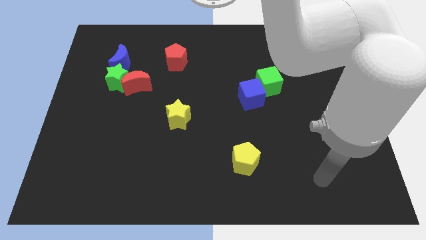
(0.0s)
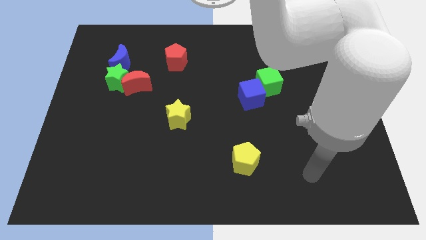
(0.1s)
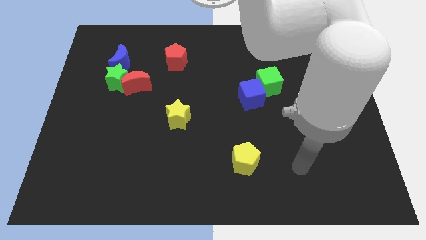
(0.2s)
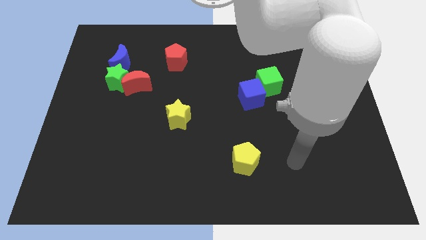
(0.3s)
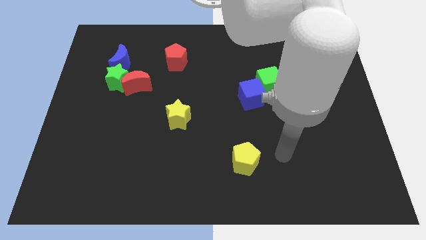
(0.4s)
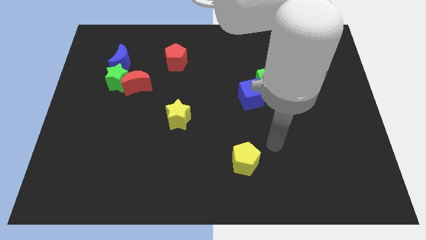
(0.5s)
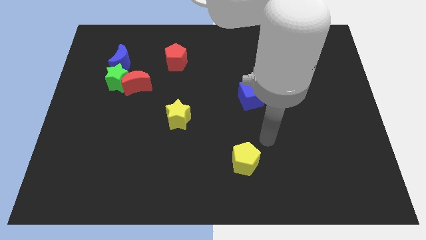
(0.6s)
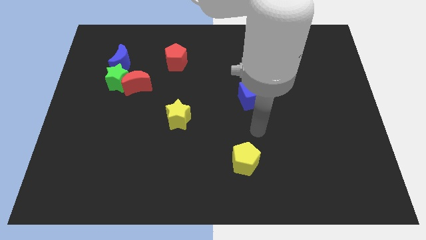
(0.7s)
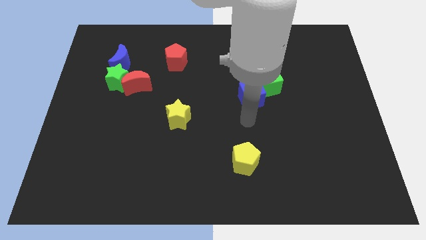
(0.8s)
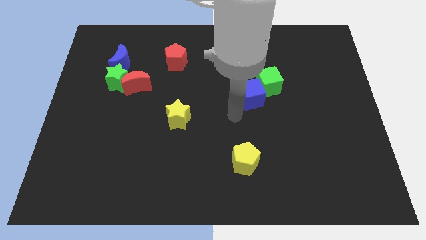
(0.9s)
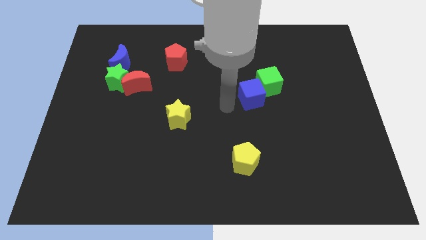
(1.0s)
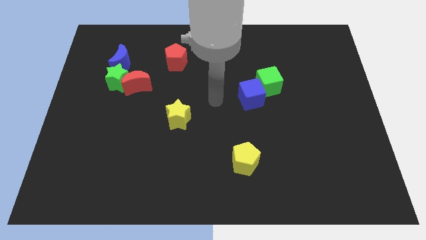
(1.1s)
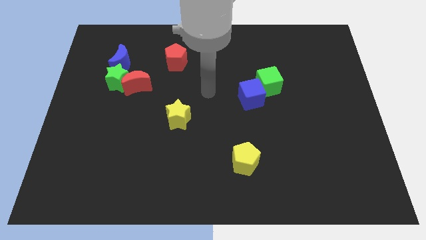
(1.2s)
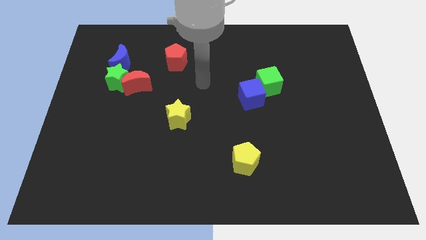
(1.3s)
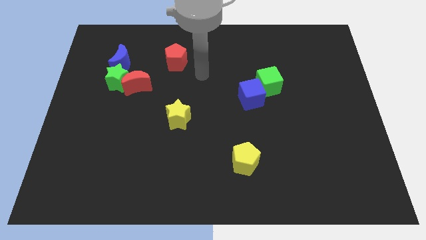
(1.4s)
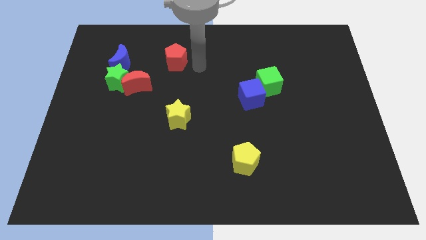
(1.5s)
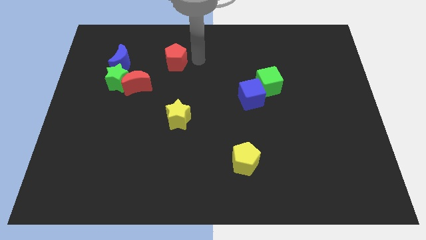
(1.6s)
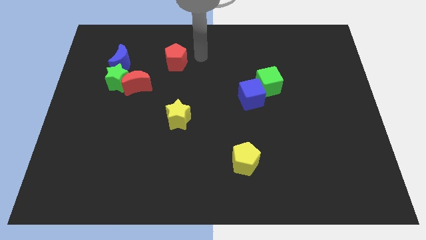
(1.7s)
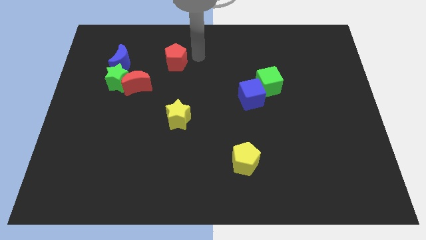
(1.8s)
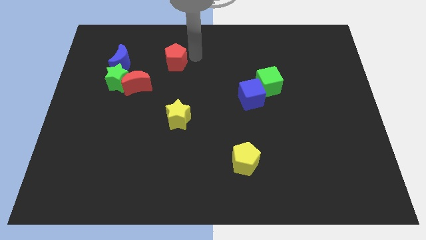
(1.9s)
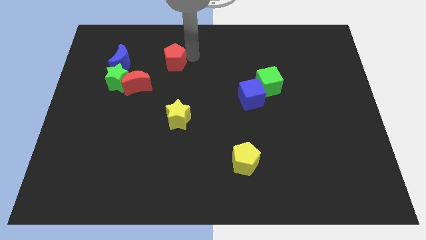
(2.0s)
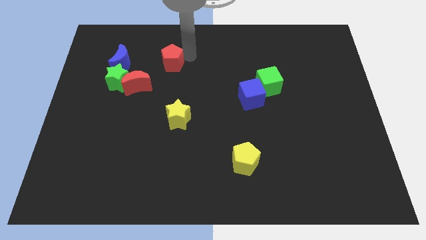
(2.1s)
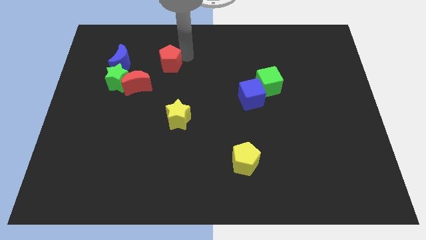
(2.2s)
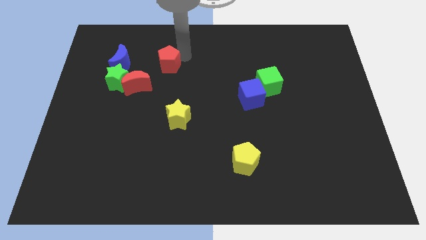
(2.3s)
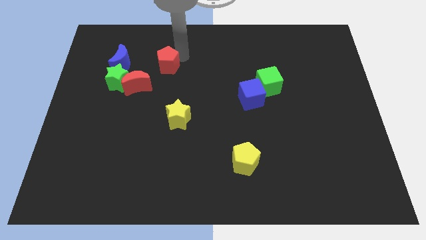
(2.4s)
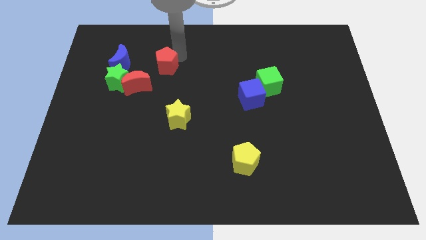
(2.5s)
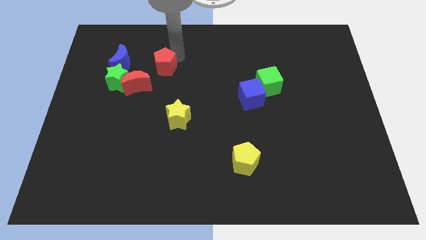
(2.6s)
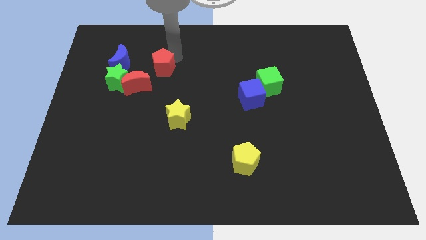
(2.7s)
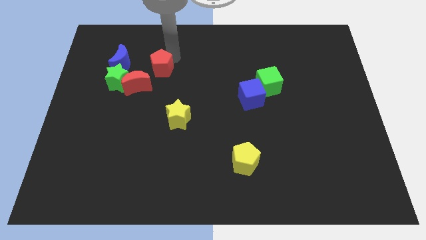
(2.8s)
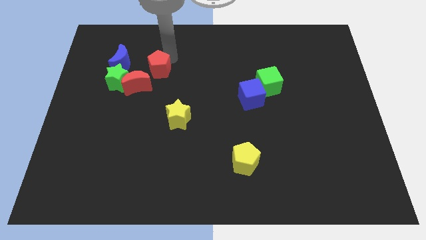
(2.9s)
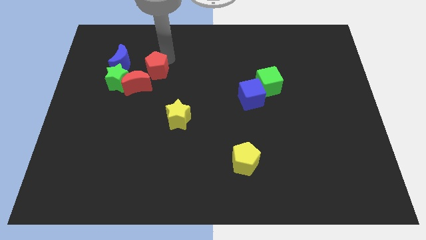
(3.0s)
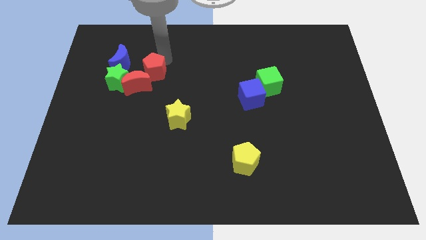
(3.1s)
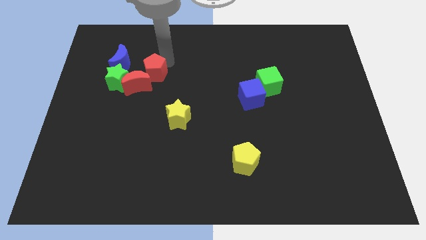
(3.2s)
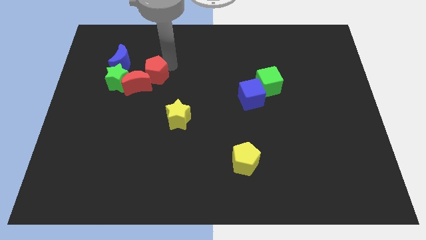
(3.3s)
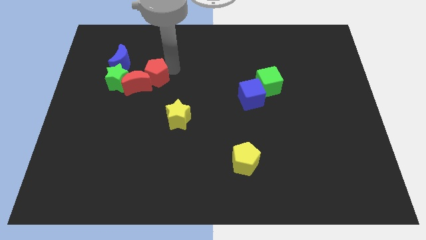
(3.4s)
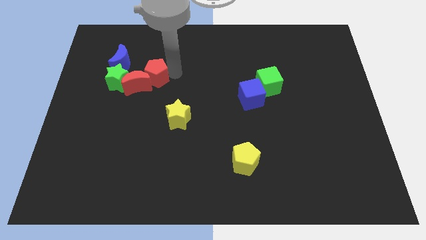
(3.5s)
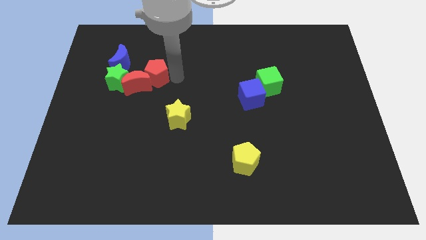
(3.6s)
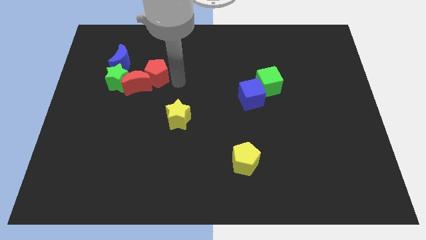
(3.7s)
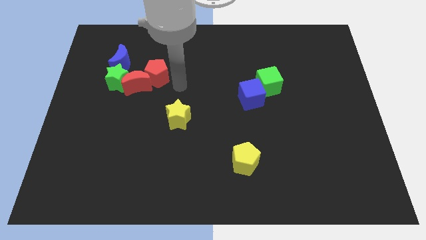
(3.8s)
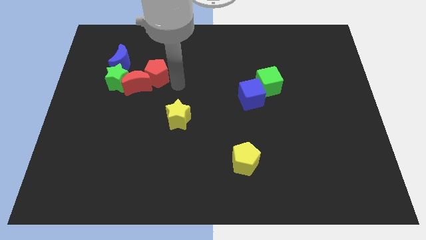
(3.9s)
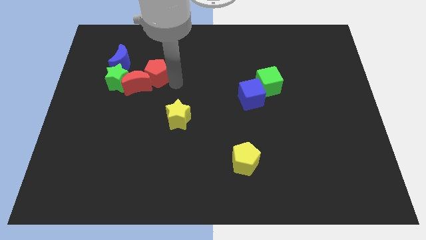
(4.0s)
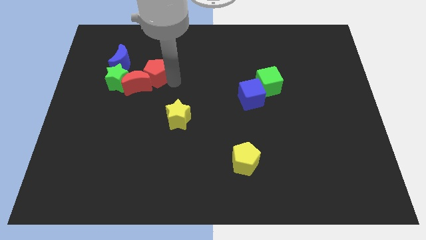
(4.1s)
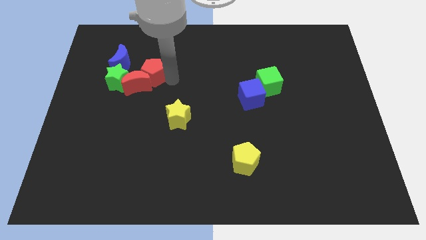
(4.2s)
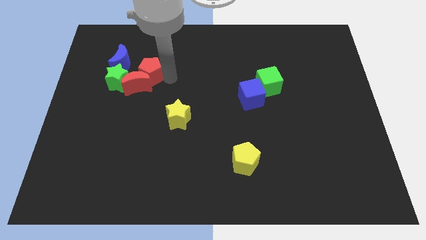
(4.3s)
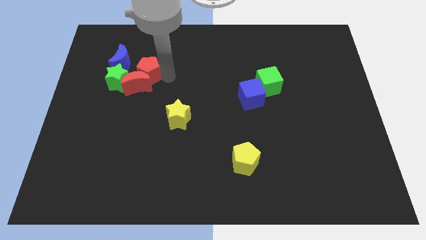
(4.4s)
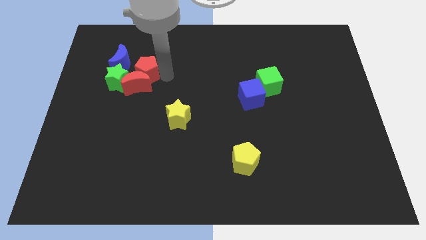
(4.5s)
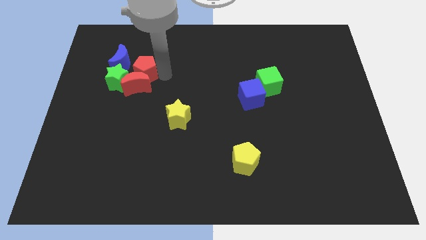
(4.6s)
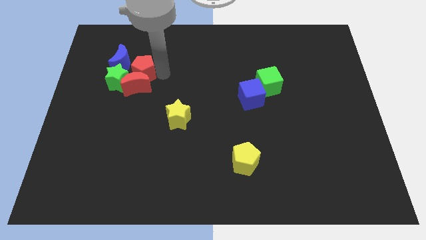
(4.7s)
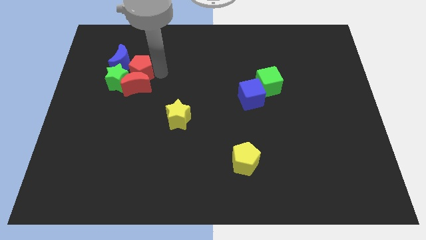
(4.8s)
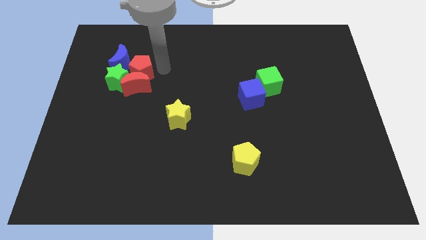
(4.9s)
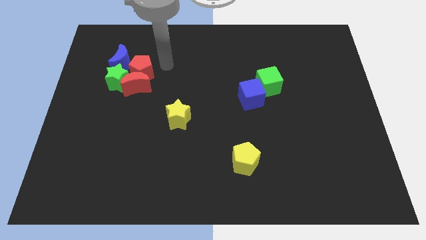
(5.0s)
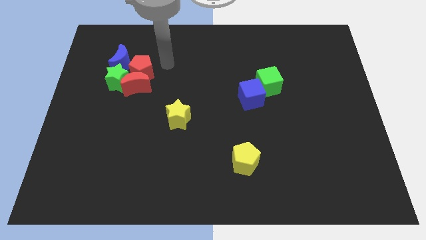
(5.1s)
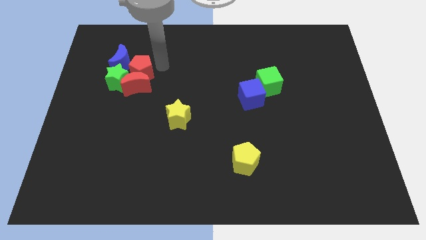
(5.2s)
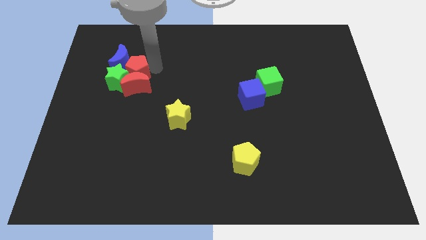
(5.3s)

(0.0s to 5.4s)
move the red pentagon towards the green star

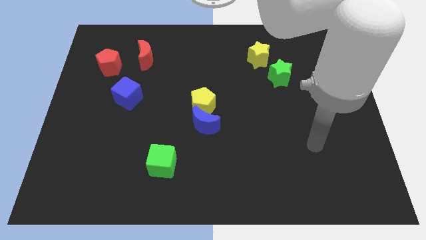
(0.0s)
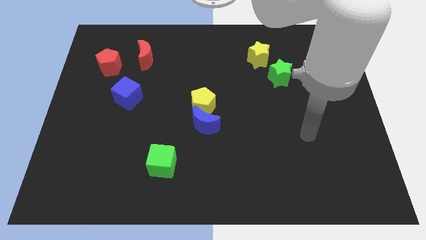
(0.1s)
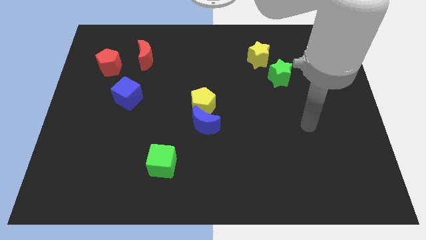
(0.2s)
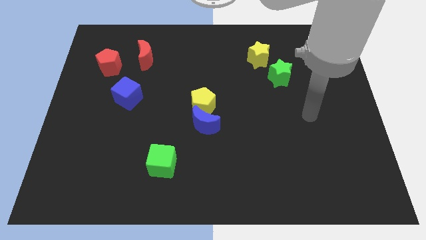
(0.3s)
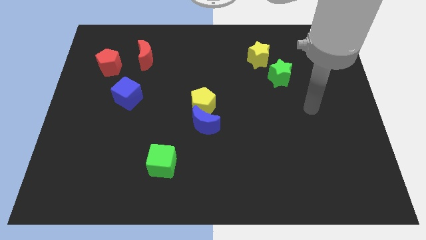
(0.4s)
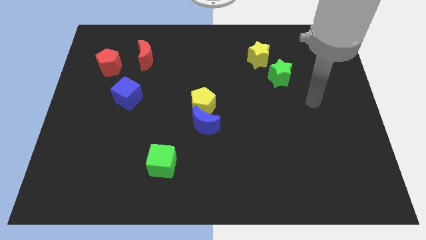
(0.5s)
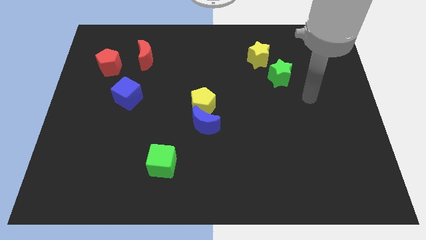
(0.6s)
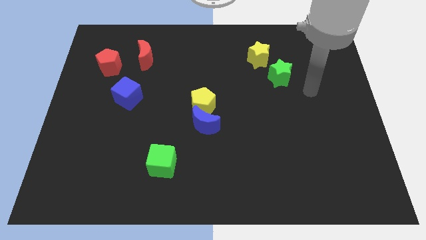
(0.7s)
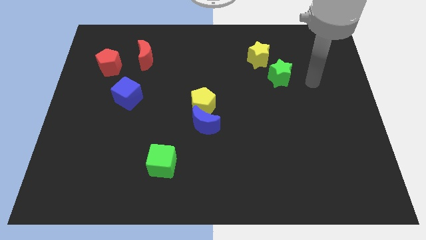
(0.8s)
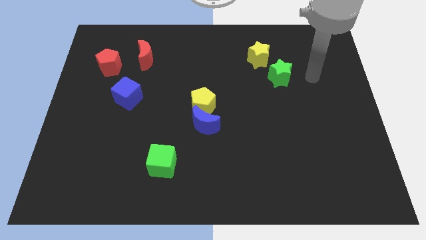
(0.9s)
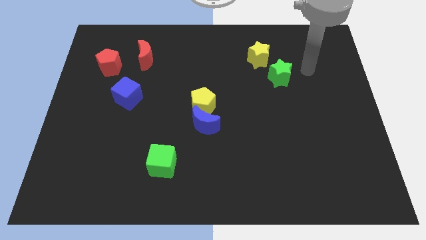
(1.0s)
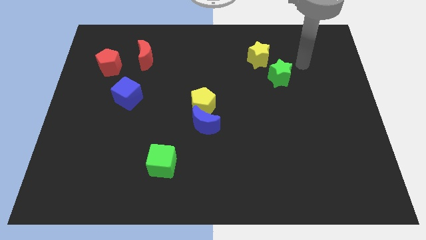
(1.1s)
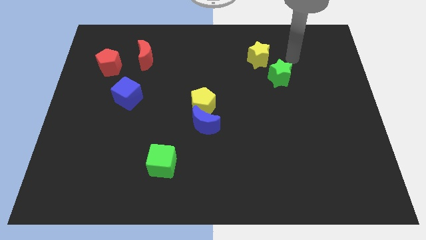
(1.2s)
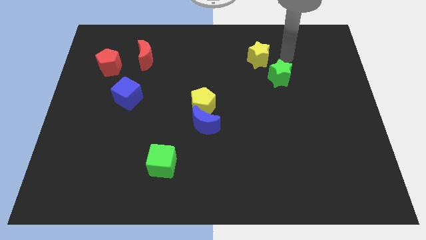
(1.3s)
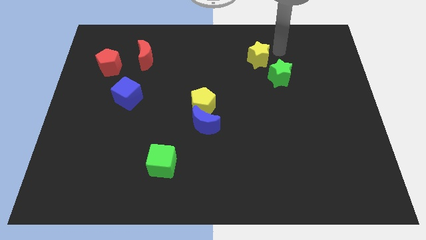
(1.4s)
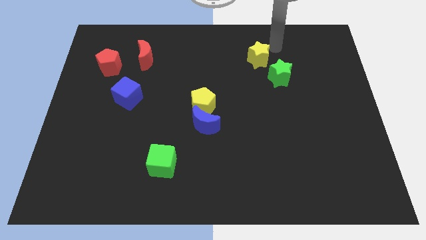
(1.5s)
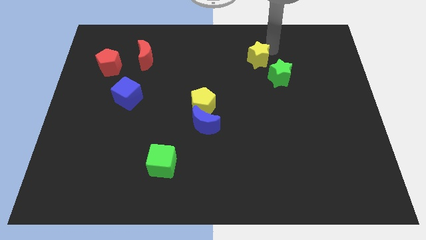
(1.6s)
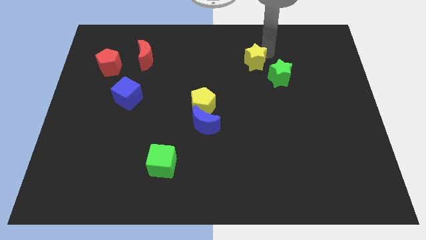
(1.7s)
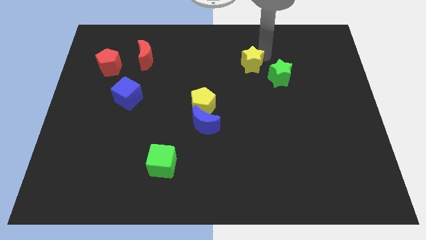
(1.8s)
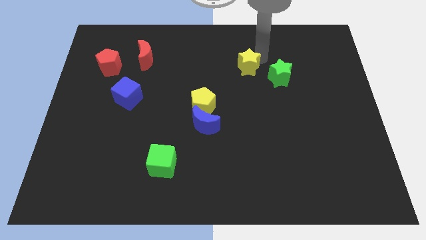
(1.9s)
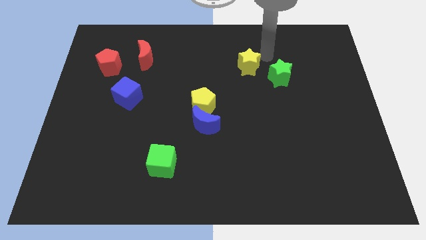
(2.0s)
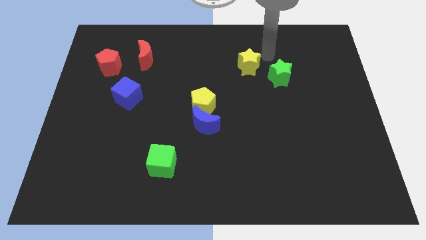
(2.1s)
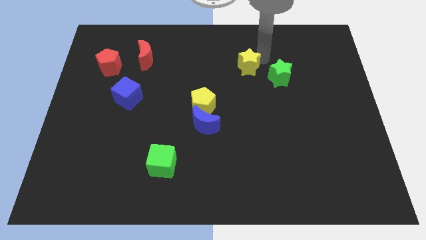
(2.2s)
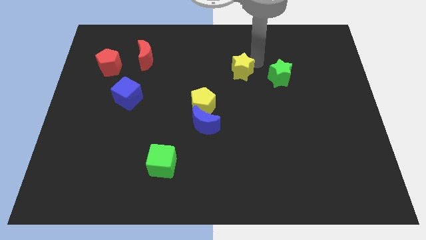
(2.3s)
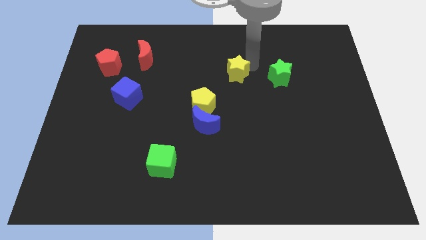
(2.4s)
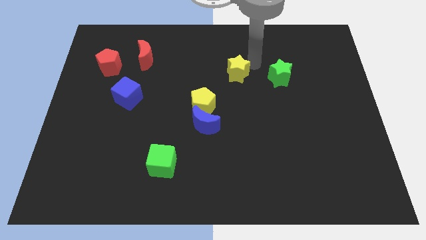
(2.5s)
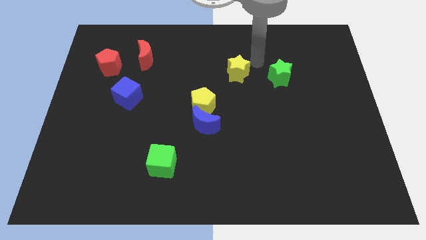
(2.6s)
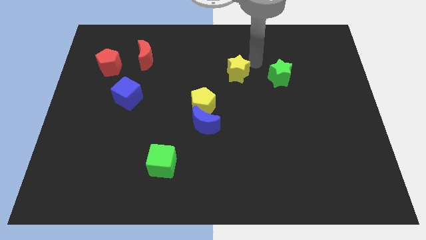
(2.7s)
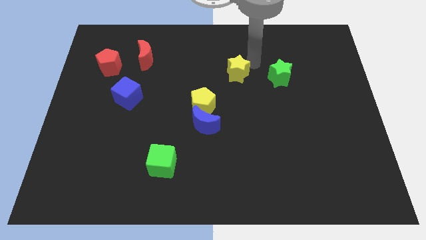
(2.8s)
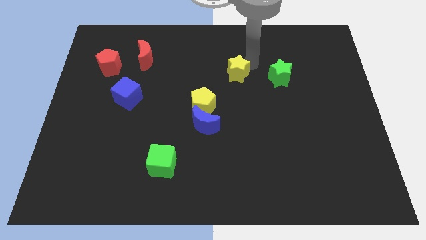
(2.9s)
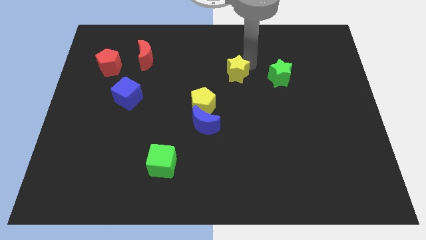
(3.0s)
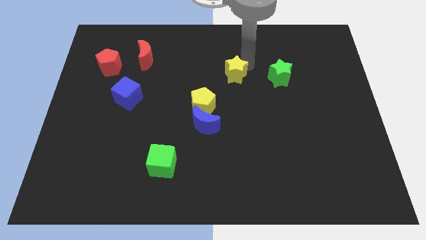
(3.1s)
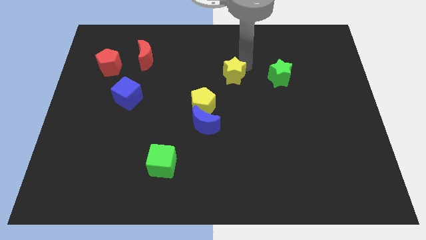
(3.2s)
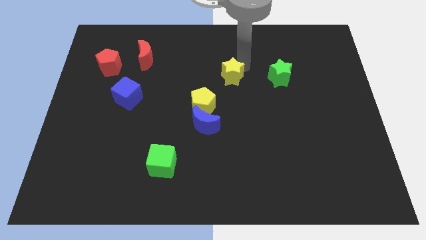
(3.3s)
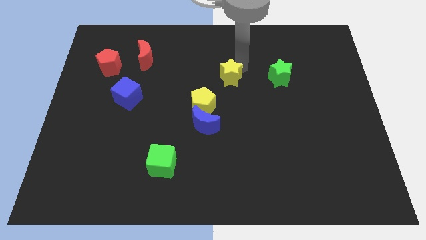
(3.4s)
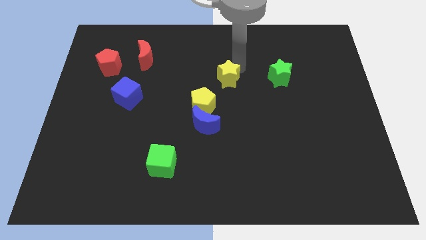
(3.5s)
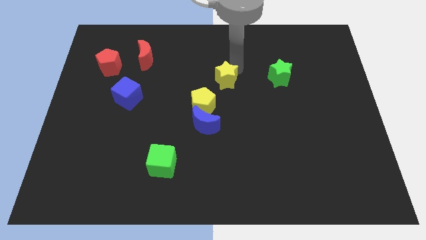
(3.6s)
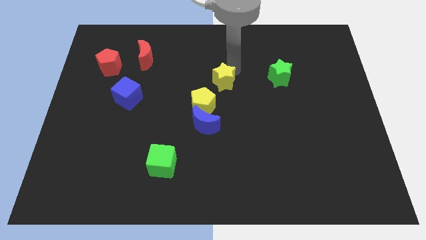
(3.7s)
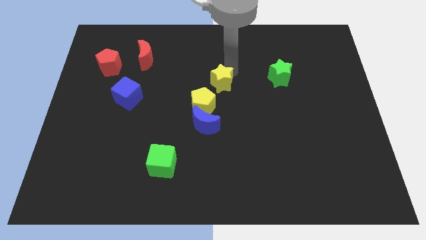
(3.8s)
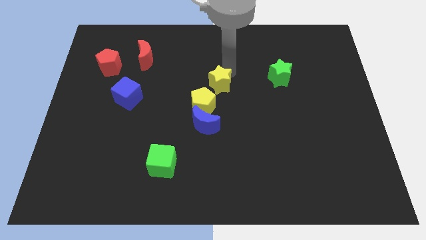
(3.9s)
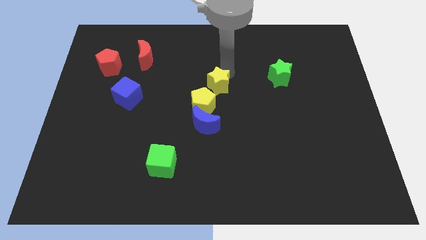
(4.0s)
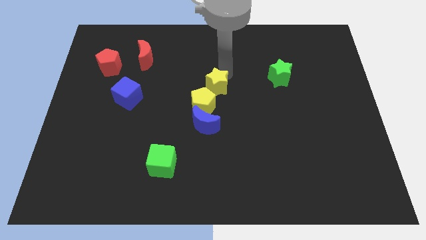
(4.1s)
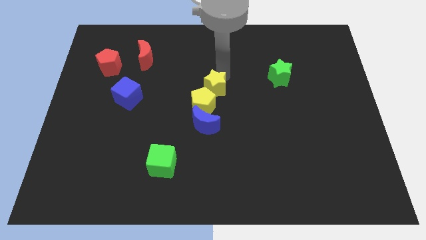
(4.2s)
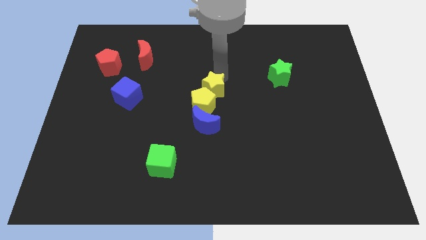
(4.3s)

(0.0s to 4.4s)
push the yellow star towards the yellow pentagon
